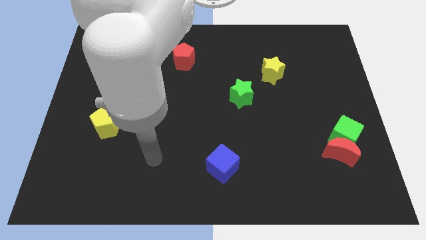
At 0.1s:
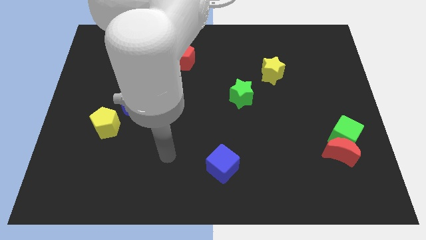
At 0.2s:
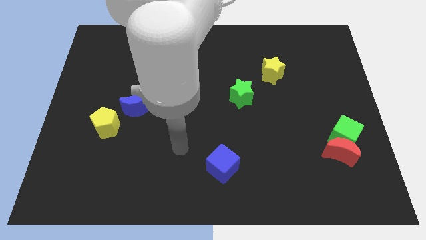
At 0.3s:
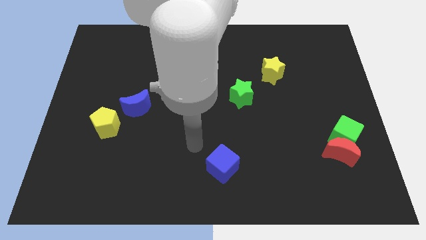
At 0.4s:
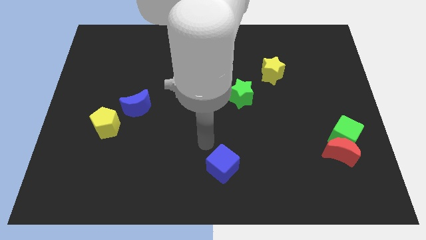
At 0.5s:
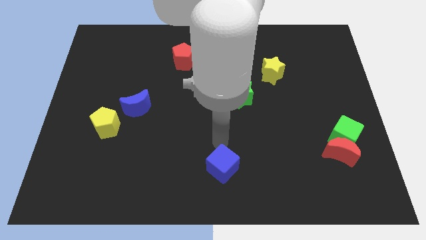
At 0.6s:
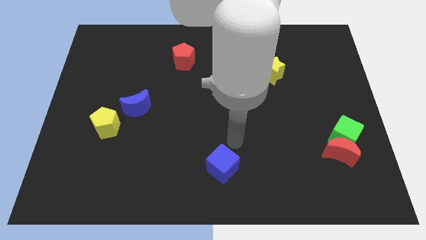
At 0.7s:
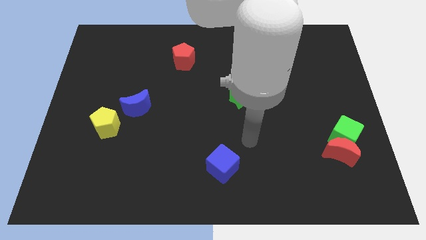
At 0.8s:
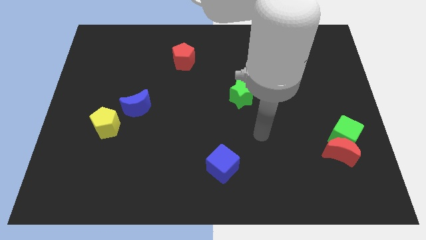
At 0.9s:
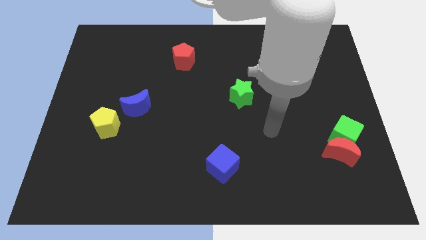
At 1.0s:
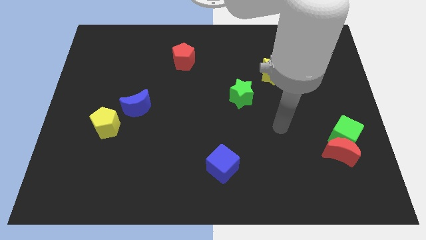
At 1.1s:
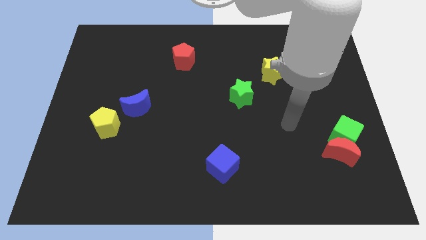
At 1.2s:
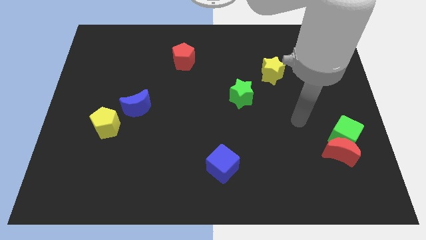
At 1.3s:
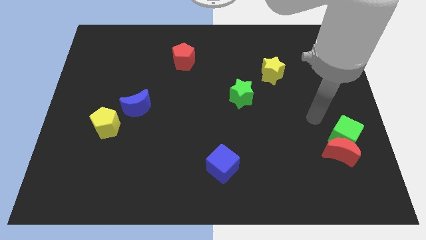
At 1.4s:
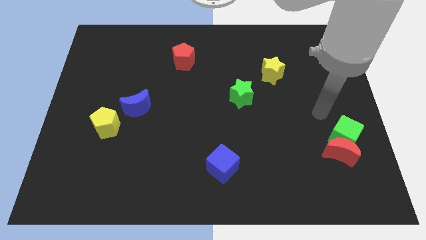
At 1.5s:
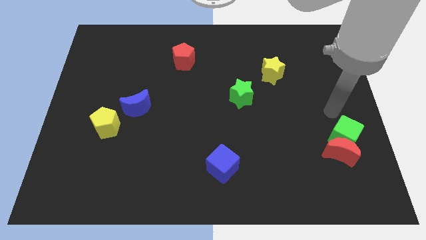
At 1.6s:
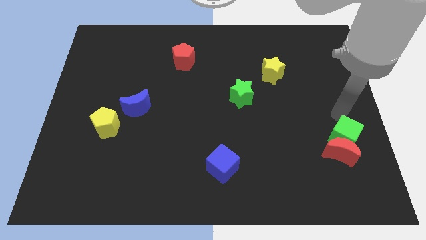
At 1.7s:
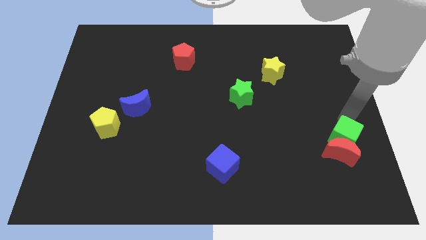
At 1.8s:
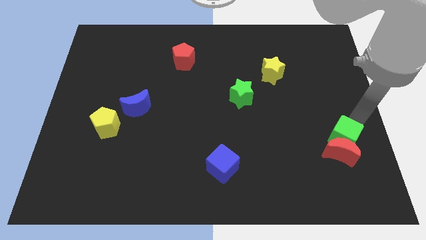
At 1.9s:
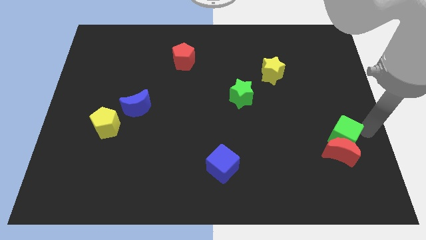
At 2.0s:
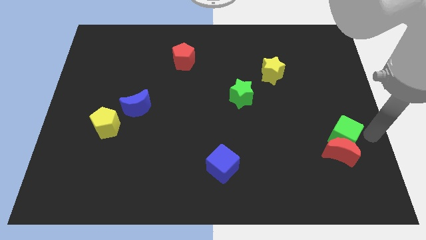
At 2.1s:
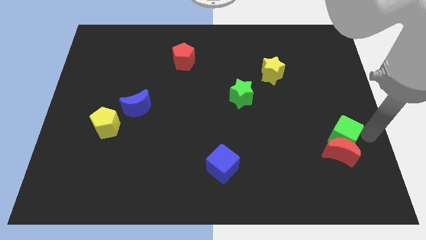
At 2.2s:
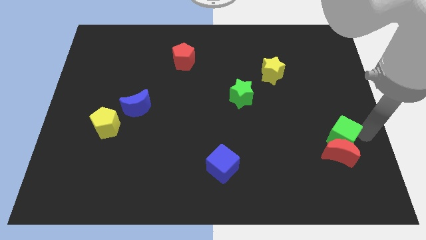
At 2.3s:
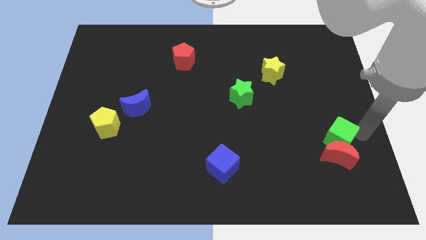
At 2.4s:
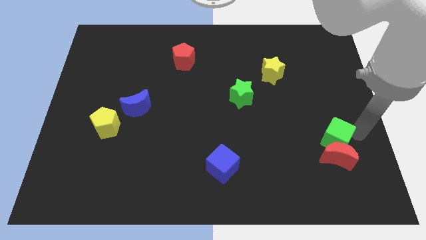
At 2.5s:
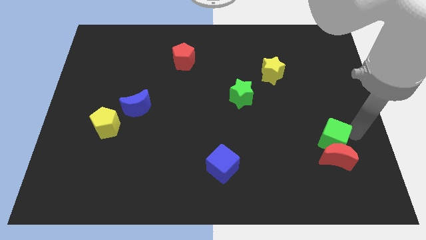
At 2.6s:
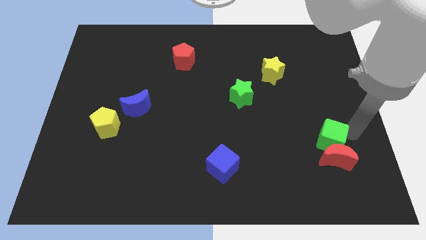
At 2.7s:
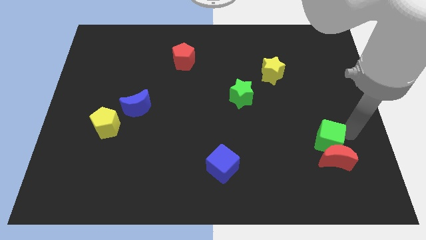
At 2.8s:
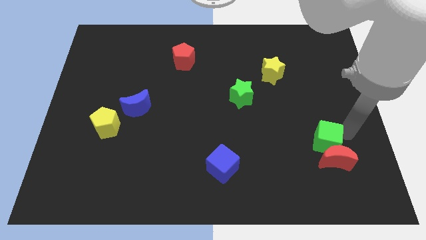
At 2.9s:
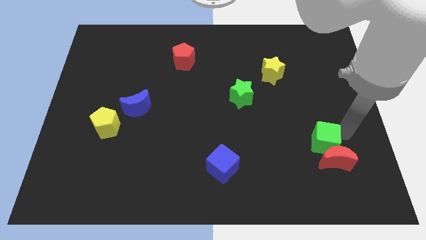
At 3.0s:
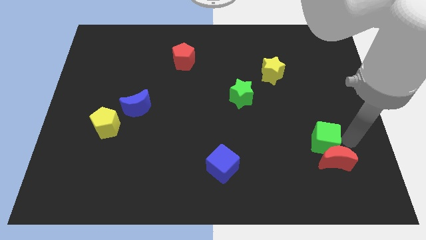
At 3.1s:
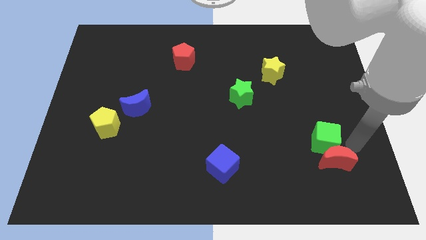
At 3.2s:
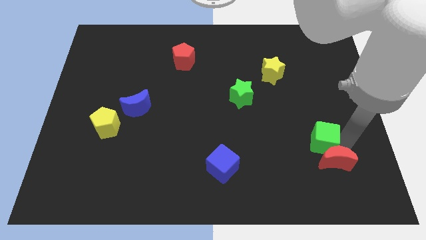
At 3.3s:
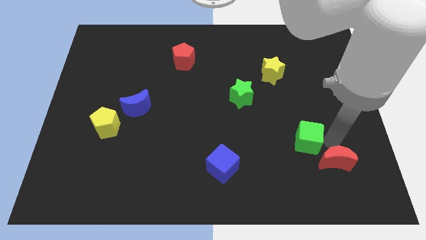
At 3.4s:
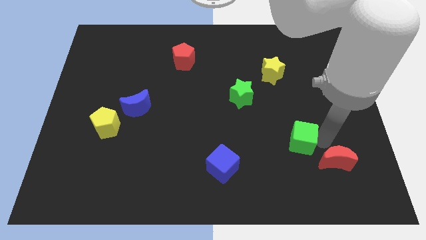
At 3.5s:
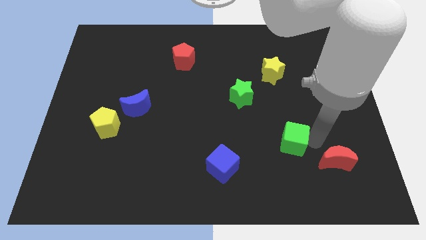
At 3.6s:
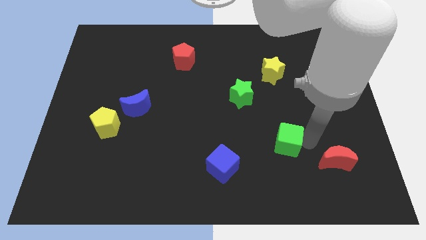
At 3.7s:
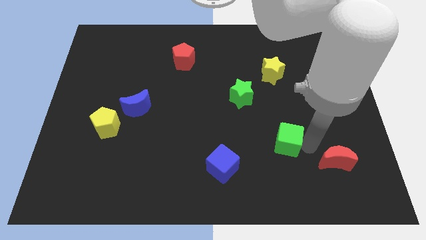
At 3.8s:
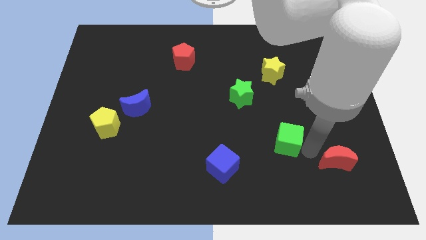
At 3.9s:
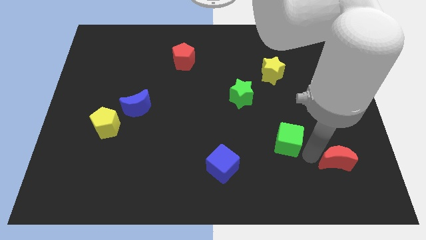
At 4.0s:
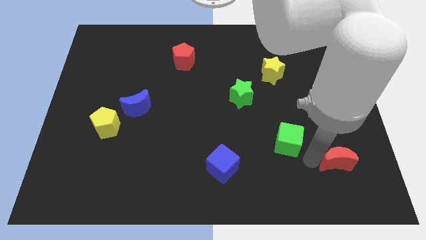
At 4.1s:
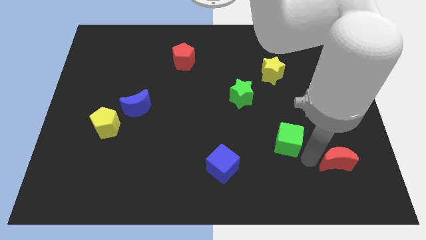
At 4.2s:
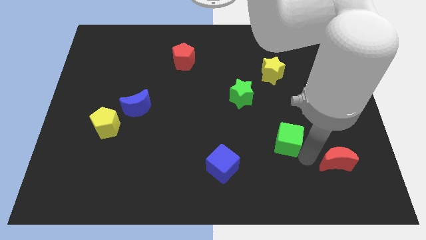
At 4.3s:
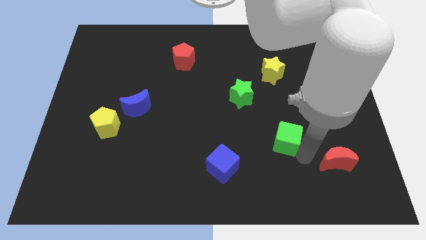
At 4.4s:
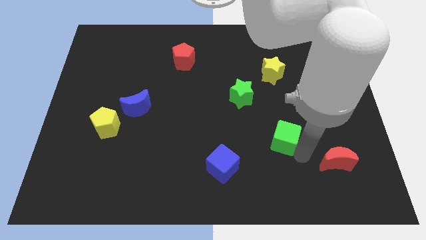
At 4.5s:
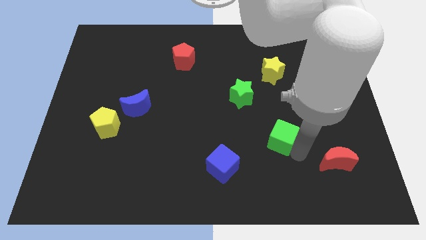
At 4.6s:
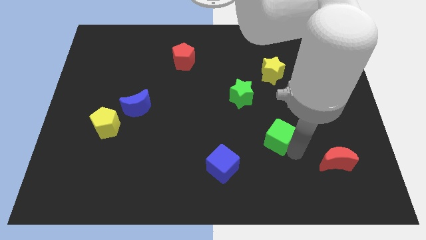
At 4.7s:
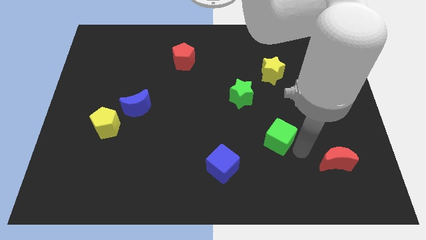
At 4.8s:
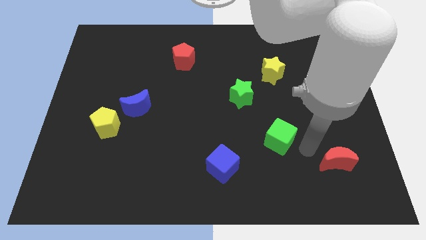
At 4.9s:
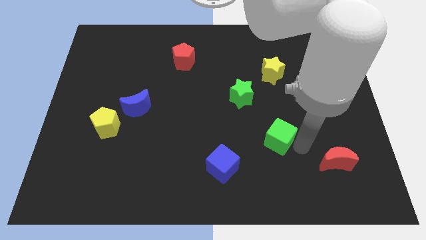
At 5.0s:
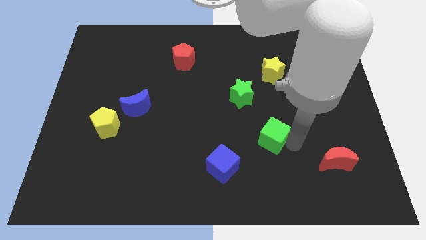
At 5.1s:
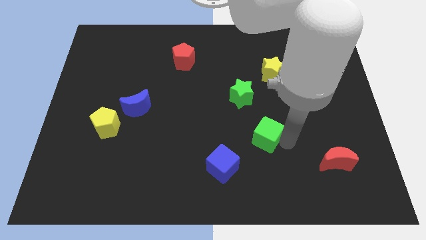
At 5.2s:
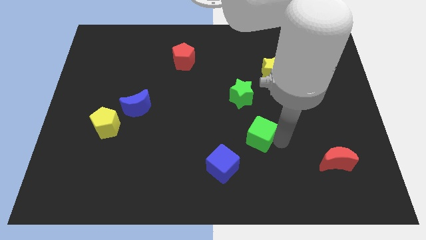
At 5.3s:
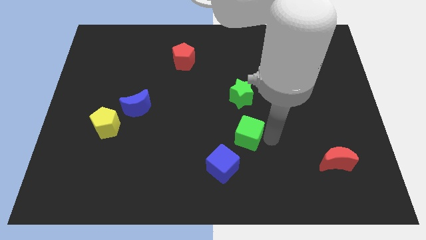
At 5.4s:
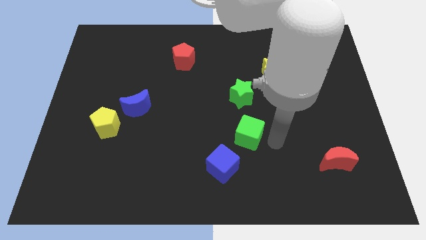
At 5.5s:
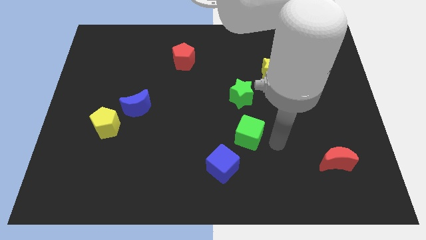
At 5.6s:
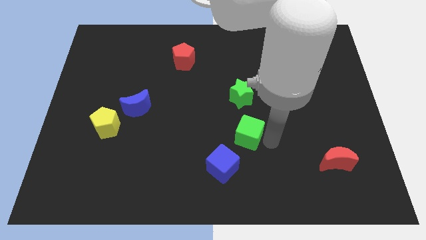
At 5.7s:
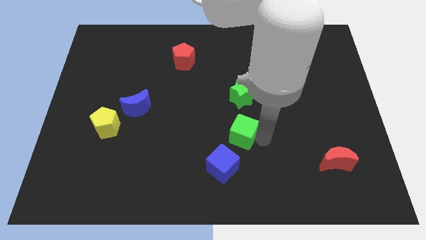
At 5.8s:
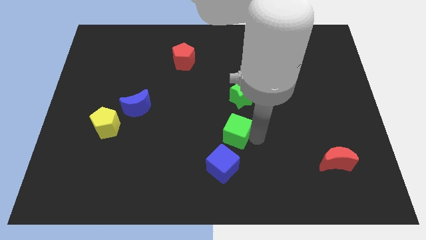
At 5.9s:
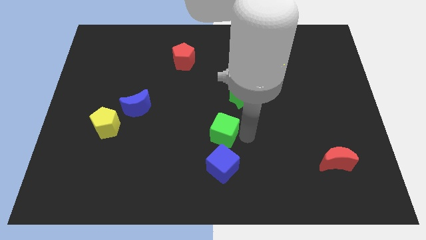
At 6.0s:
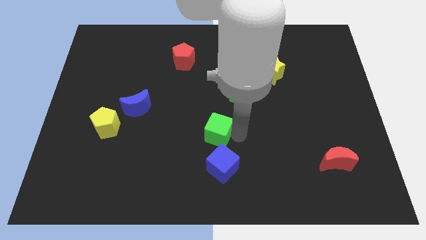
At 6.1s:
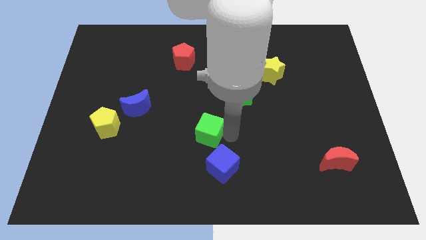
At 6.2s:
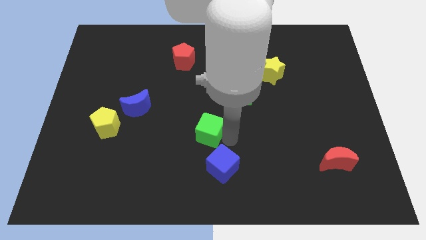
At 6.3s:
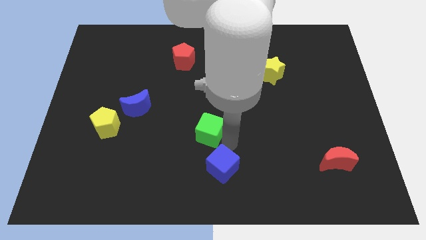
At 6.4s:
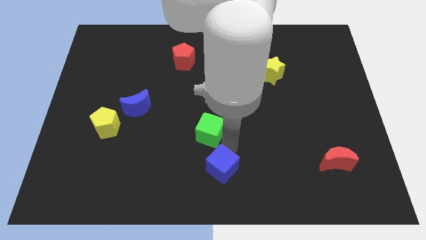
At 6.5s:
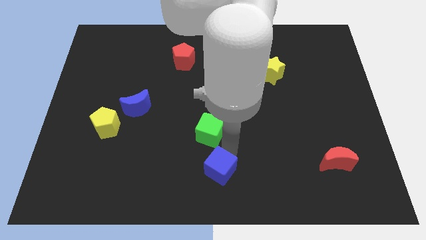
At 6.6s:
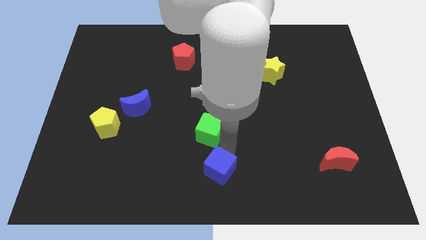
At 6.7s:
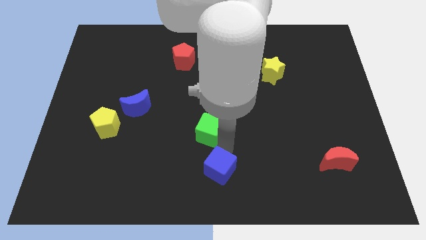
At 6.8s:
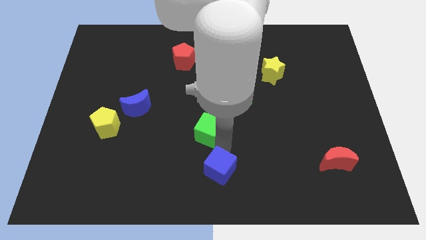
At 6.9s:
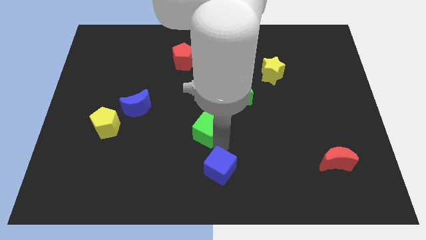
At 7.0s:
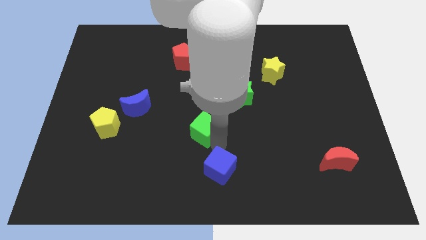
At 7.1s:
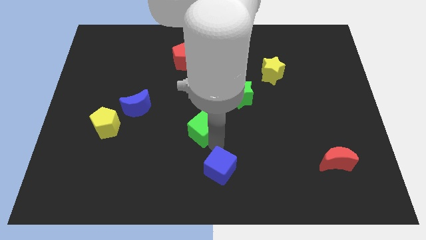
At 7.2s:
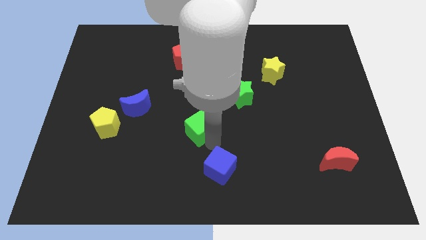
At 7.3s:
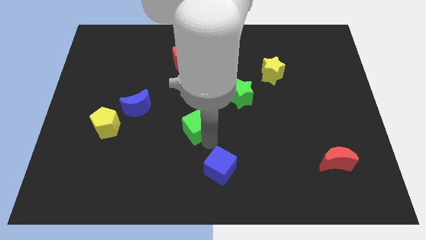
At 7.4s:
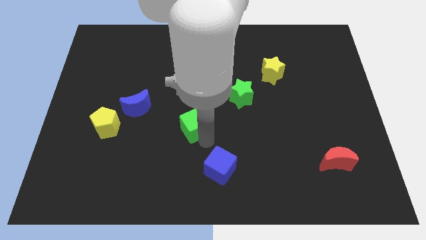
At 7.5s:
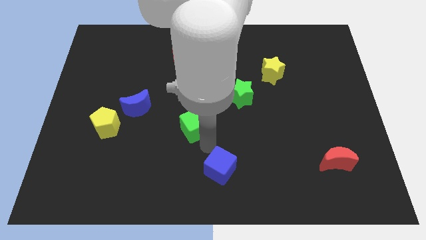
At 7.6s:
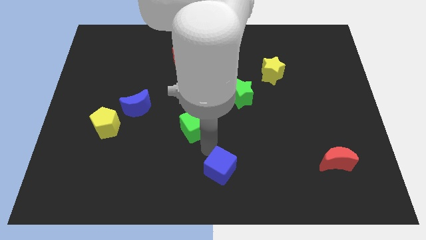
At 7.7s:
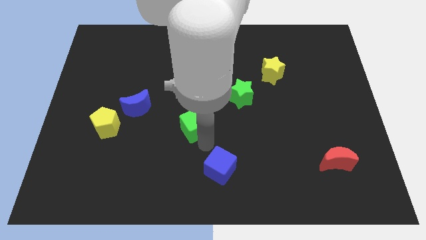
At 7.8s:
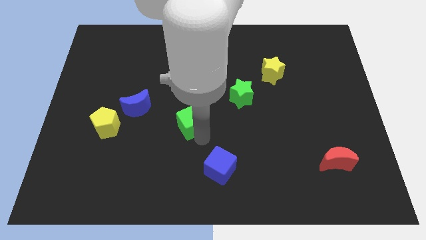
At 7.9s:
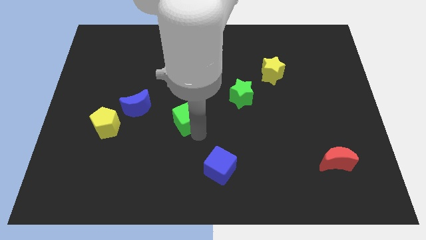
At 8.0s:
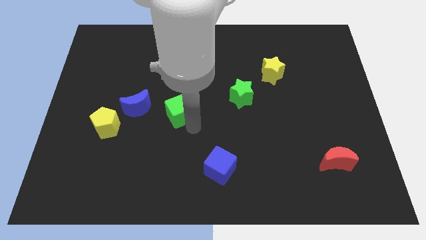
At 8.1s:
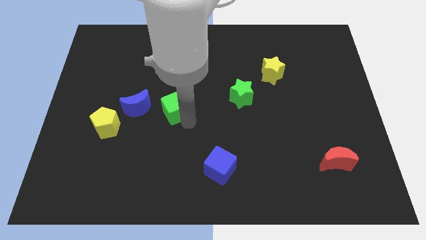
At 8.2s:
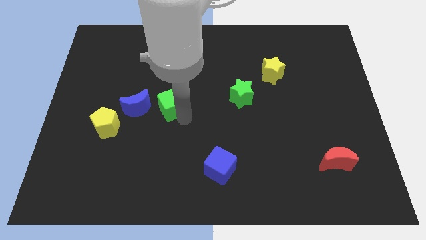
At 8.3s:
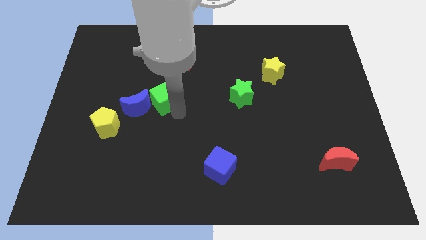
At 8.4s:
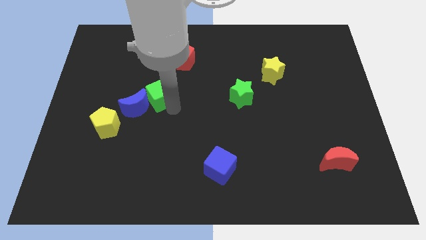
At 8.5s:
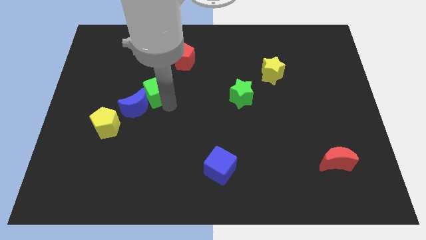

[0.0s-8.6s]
push the green cube to the top side of the blue moon
